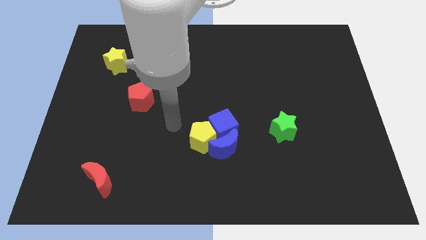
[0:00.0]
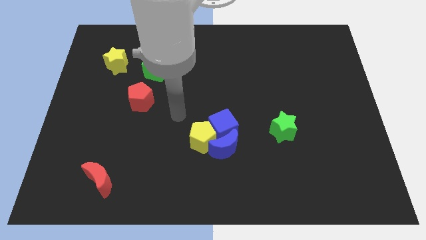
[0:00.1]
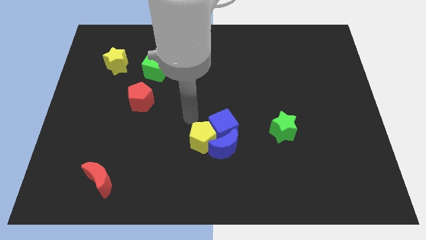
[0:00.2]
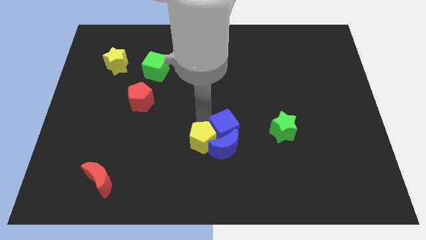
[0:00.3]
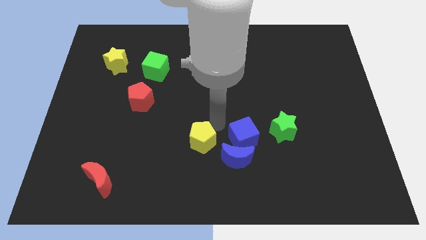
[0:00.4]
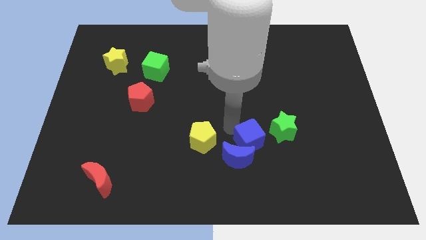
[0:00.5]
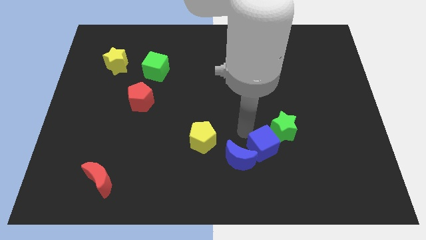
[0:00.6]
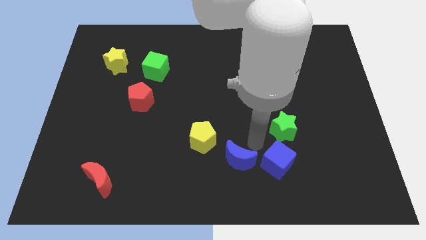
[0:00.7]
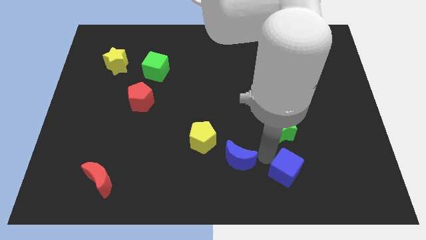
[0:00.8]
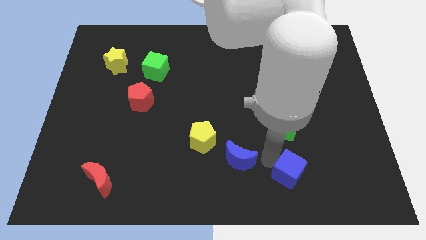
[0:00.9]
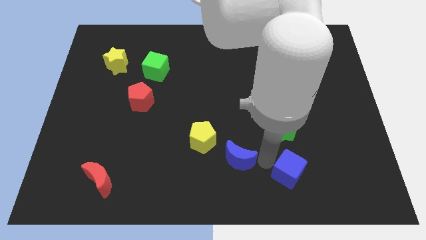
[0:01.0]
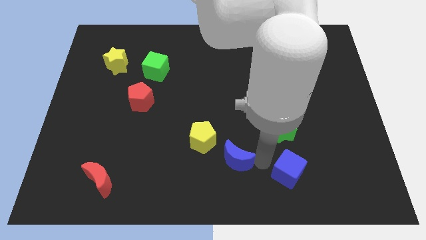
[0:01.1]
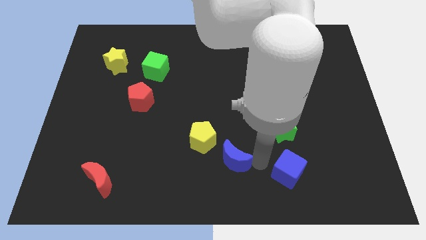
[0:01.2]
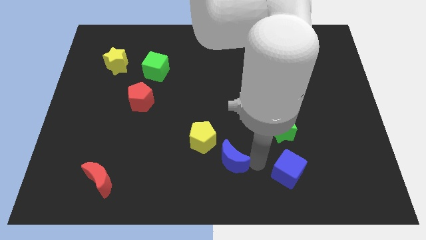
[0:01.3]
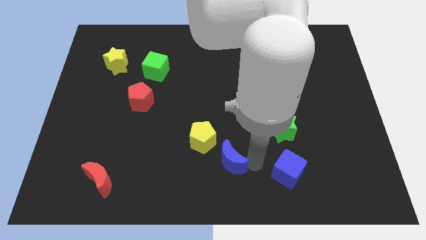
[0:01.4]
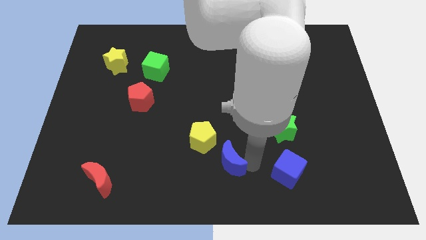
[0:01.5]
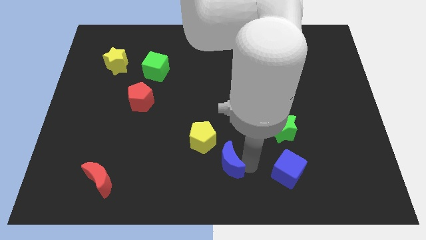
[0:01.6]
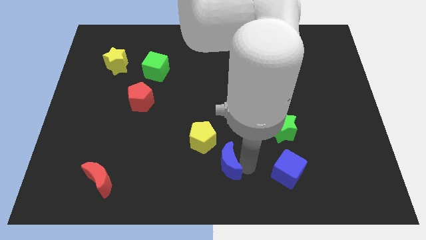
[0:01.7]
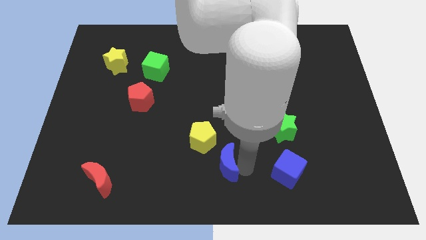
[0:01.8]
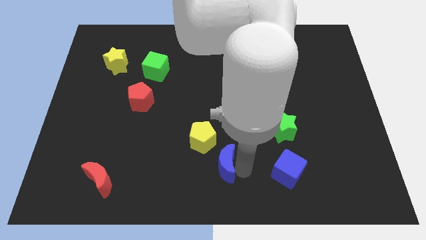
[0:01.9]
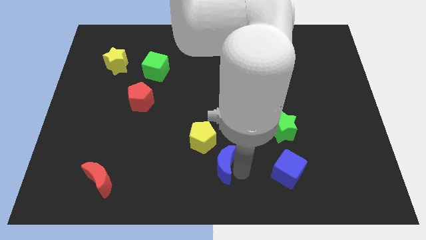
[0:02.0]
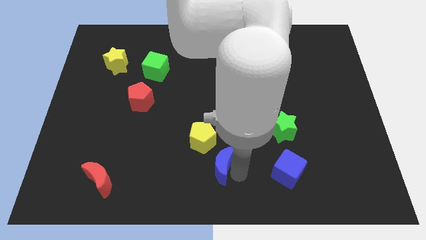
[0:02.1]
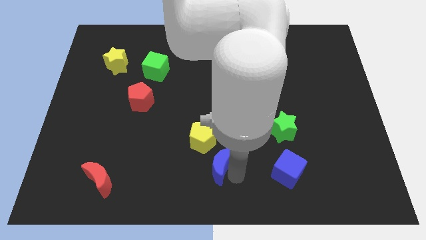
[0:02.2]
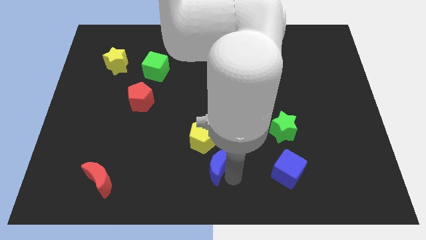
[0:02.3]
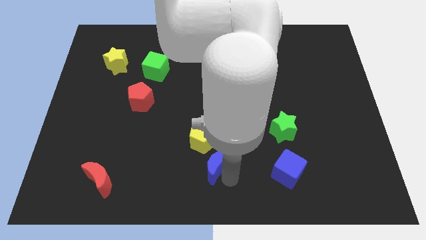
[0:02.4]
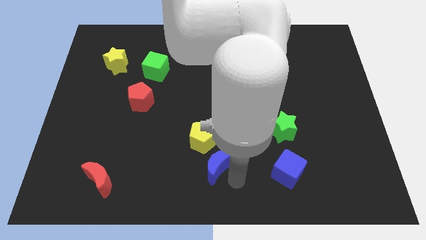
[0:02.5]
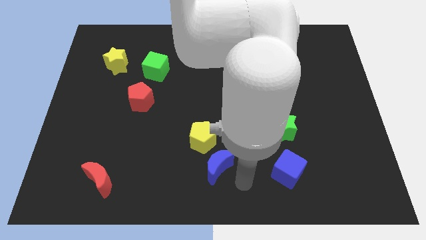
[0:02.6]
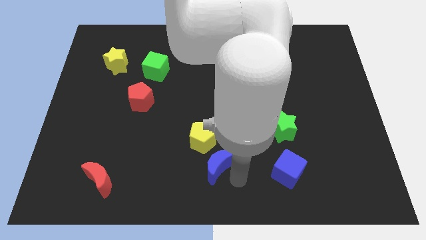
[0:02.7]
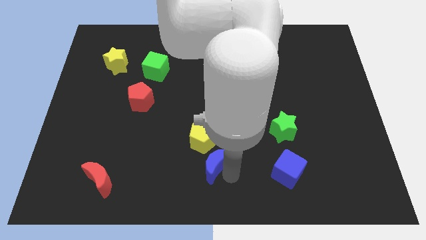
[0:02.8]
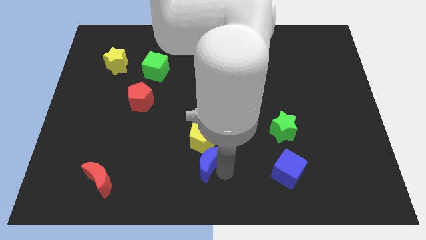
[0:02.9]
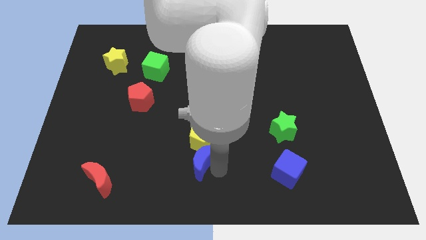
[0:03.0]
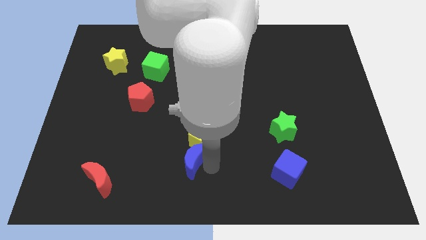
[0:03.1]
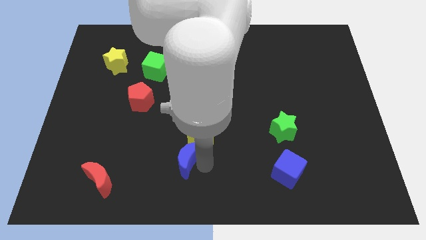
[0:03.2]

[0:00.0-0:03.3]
slightly move the blue moon to the left

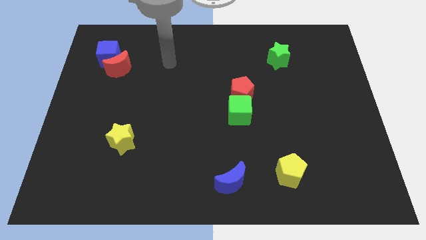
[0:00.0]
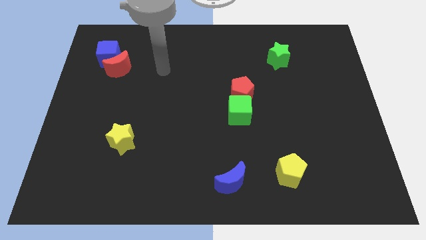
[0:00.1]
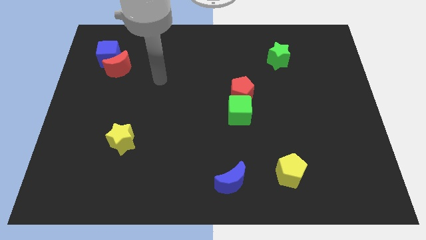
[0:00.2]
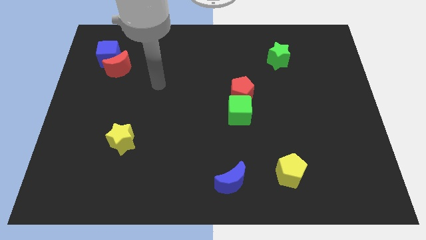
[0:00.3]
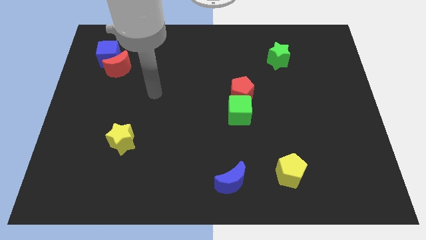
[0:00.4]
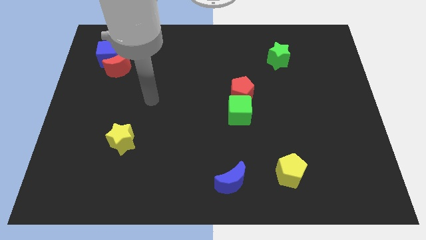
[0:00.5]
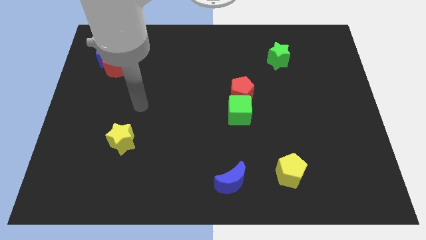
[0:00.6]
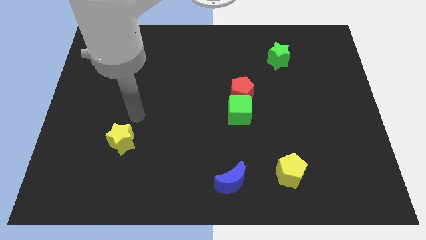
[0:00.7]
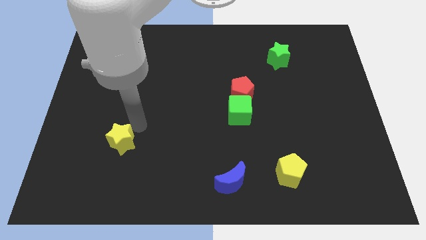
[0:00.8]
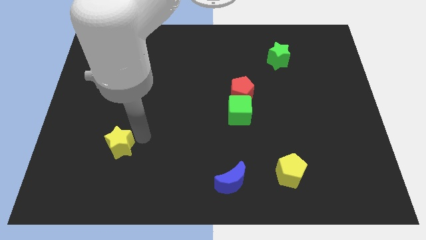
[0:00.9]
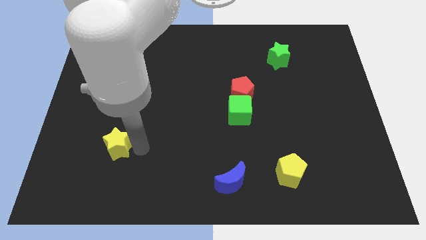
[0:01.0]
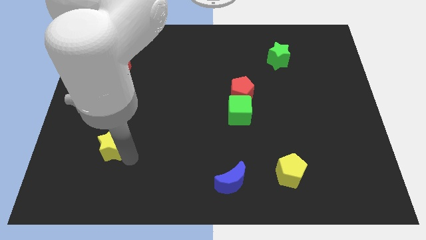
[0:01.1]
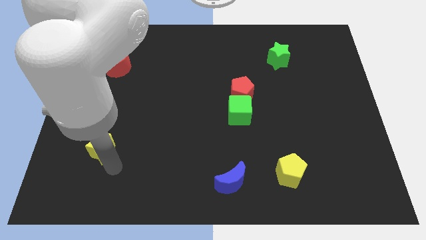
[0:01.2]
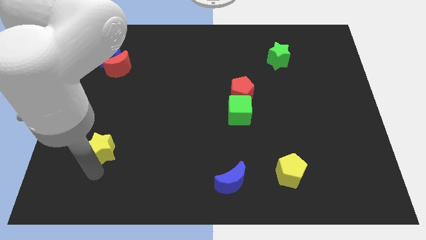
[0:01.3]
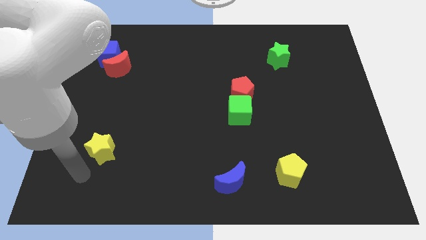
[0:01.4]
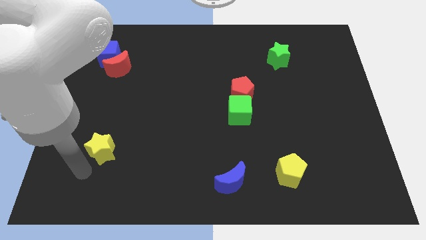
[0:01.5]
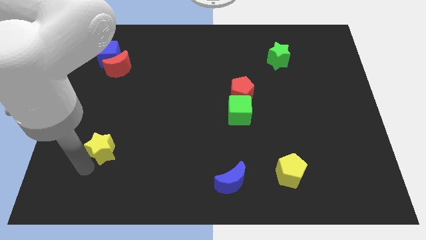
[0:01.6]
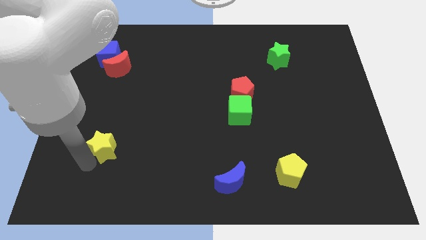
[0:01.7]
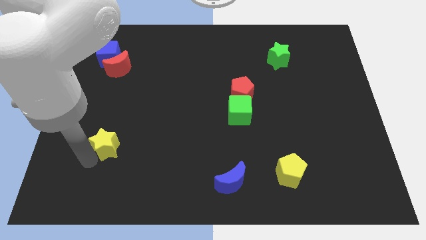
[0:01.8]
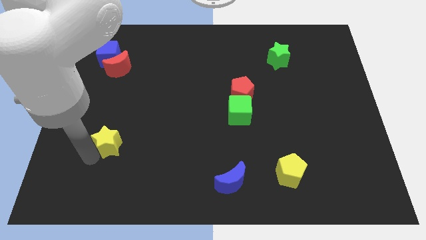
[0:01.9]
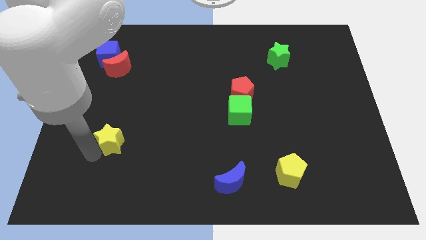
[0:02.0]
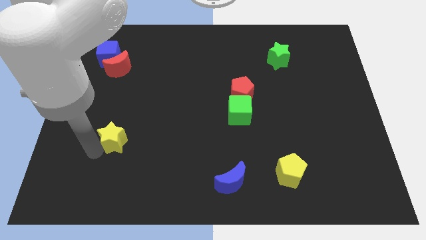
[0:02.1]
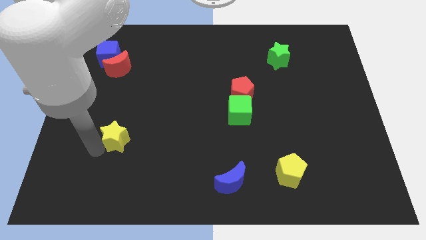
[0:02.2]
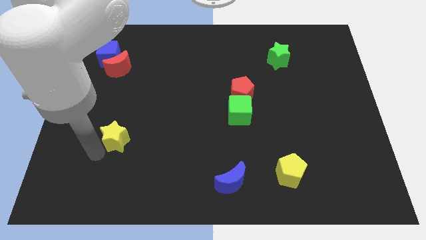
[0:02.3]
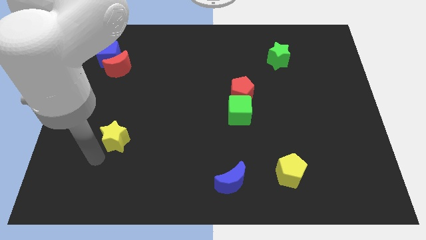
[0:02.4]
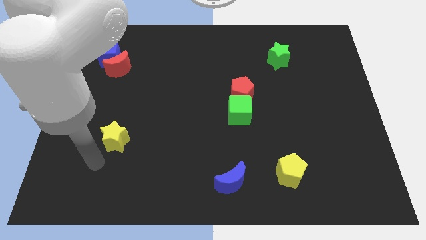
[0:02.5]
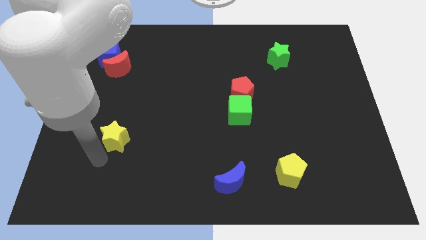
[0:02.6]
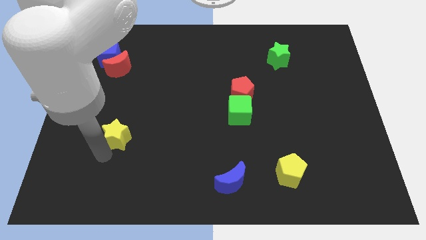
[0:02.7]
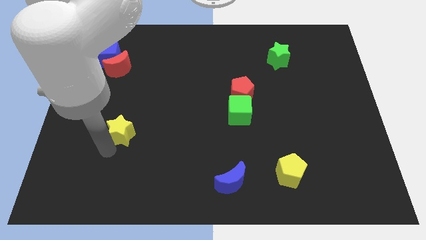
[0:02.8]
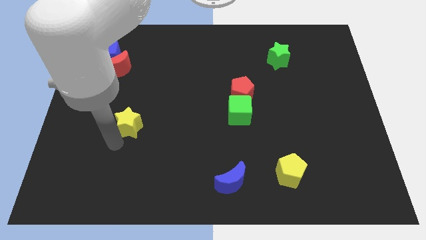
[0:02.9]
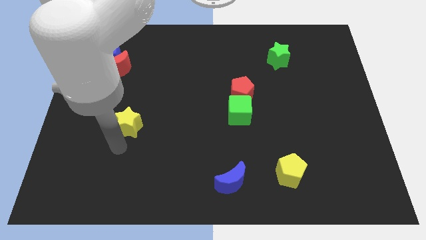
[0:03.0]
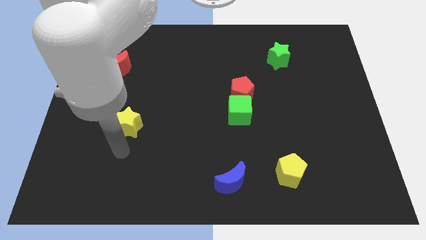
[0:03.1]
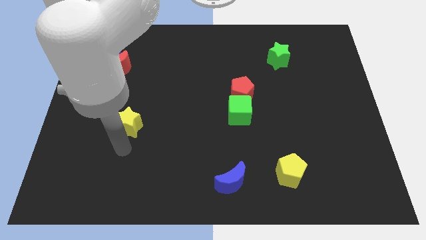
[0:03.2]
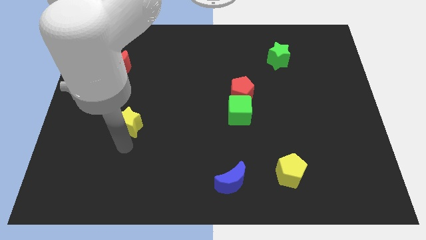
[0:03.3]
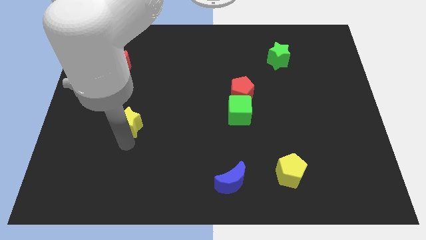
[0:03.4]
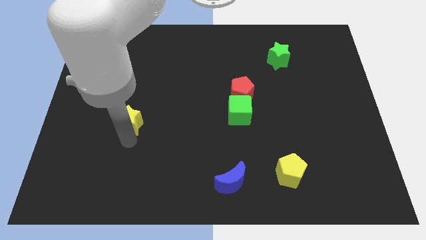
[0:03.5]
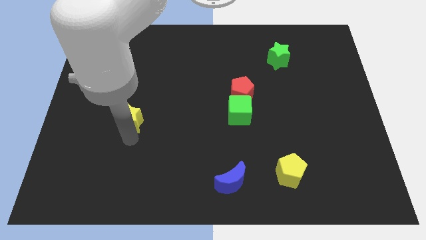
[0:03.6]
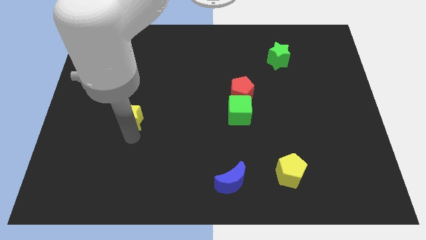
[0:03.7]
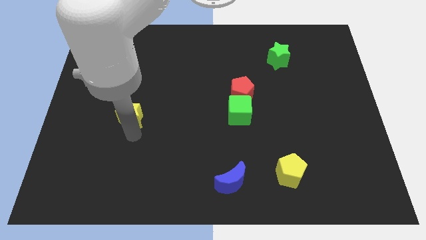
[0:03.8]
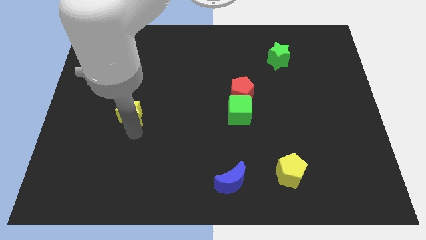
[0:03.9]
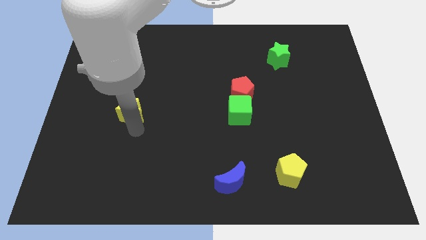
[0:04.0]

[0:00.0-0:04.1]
slide the yellow star upwards a bit

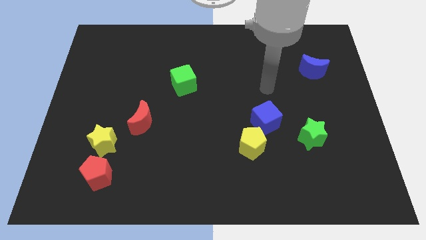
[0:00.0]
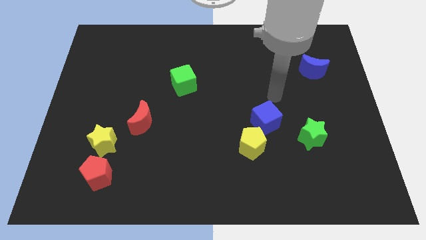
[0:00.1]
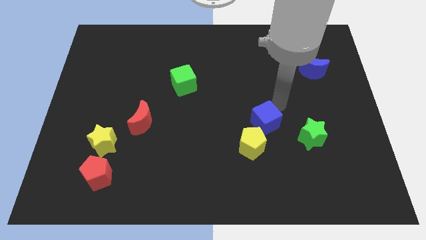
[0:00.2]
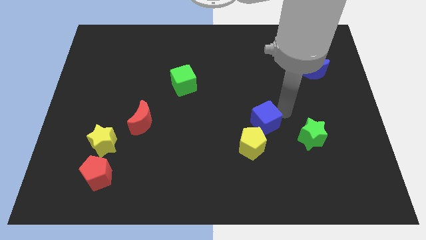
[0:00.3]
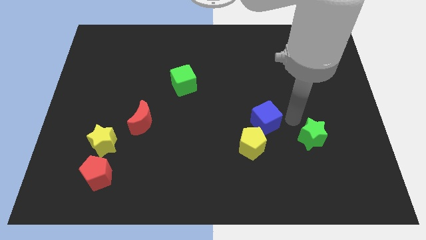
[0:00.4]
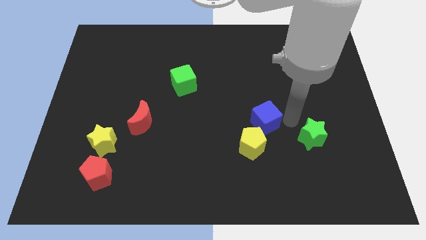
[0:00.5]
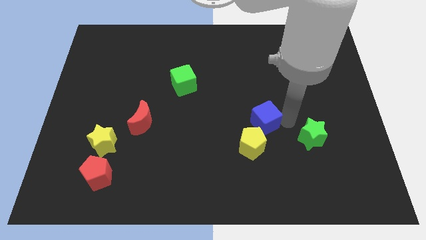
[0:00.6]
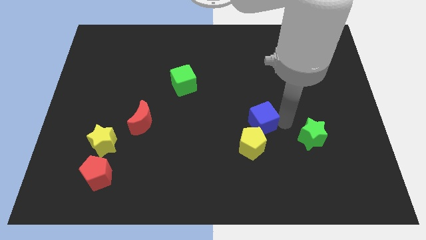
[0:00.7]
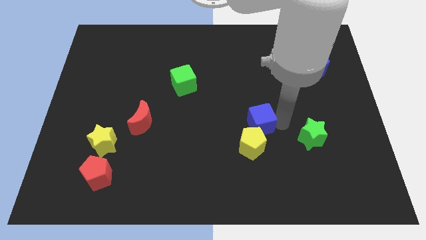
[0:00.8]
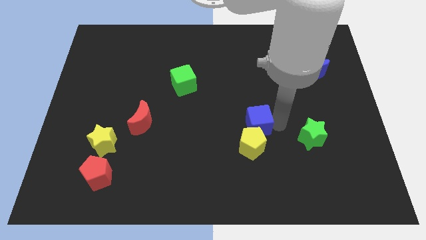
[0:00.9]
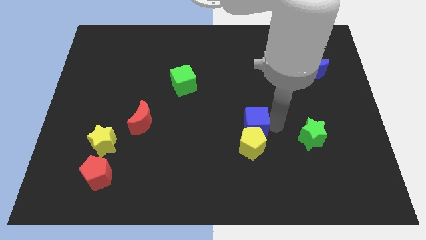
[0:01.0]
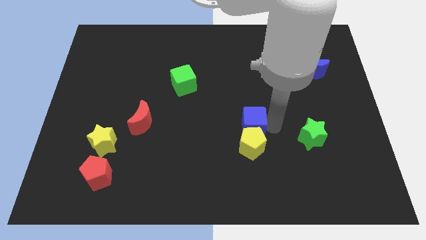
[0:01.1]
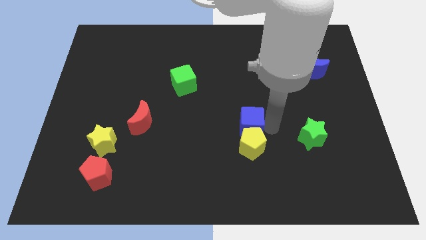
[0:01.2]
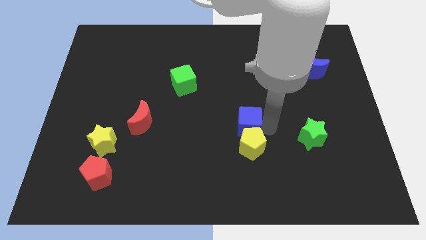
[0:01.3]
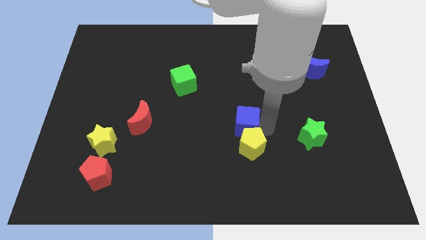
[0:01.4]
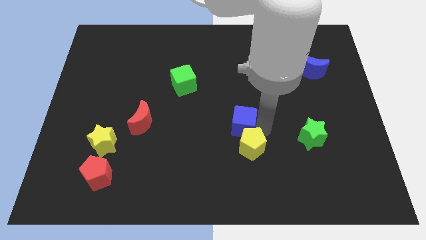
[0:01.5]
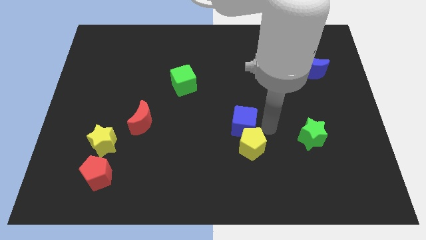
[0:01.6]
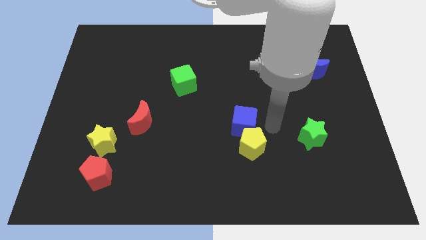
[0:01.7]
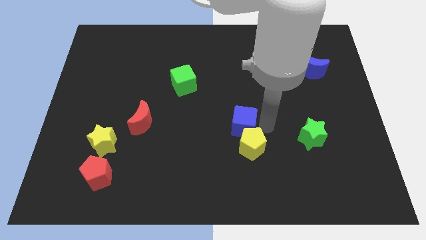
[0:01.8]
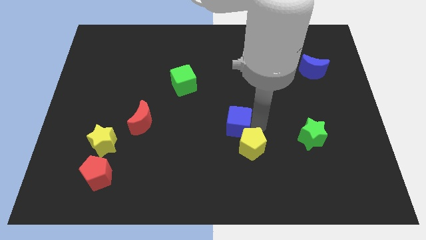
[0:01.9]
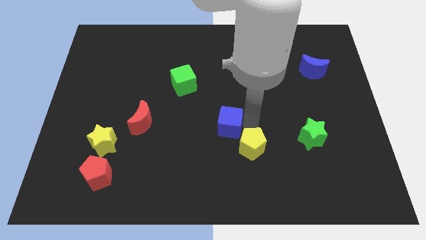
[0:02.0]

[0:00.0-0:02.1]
slightly move the blue cube left
